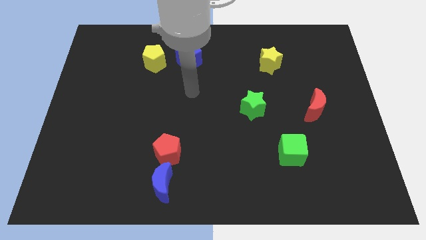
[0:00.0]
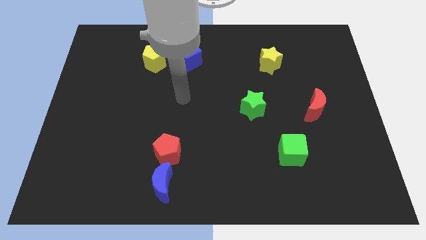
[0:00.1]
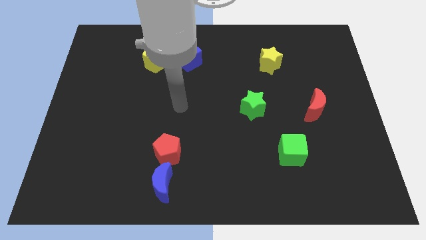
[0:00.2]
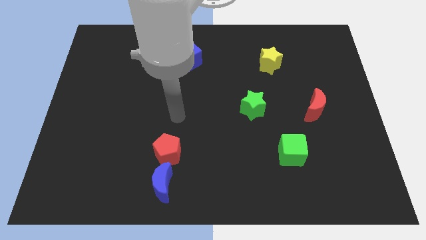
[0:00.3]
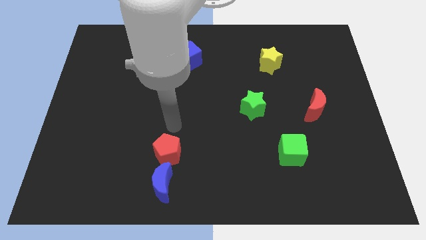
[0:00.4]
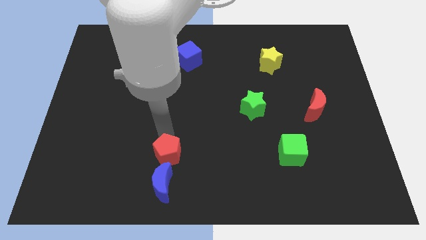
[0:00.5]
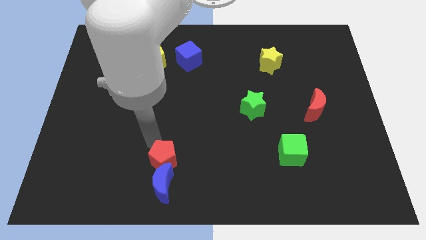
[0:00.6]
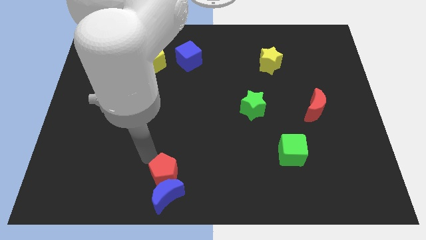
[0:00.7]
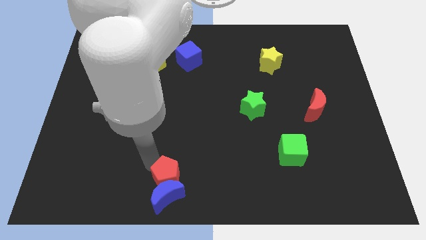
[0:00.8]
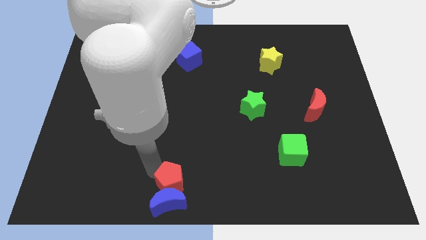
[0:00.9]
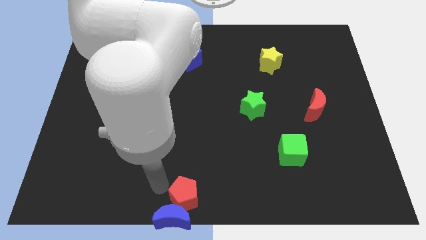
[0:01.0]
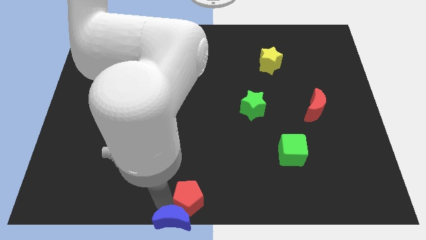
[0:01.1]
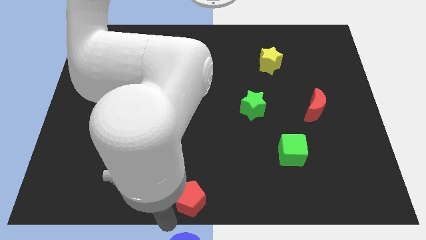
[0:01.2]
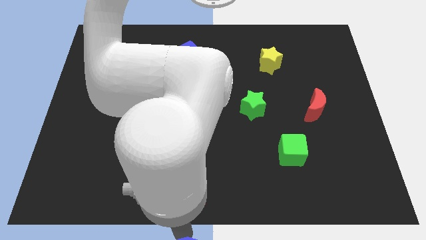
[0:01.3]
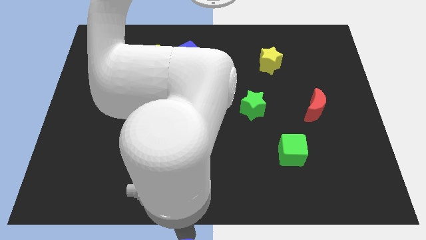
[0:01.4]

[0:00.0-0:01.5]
separate the red pentagon from the blue moon

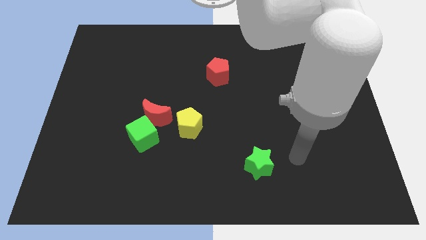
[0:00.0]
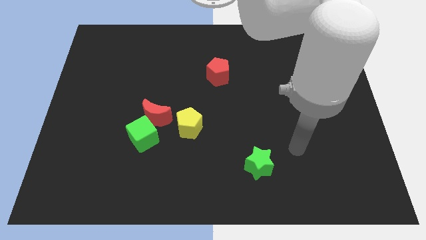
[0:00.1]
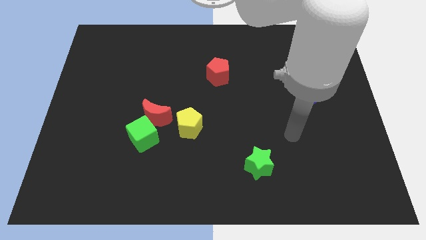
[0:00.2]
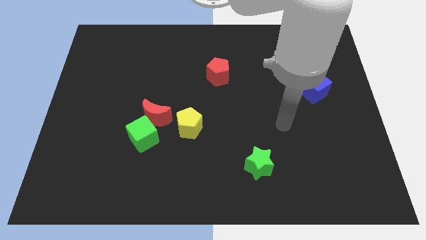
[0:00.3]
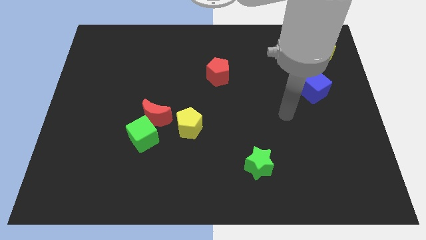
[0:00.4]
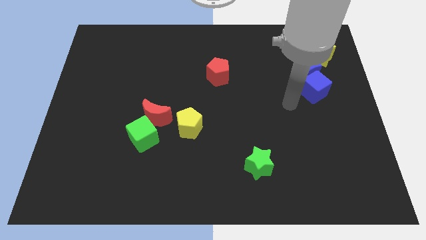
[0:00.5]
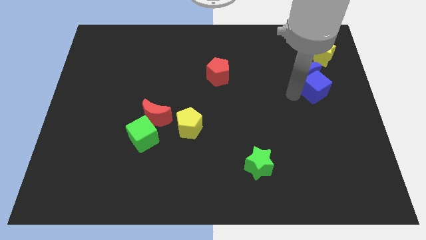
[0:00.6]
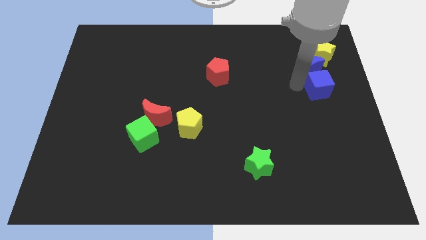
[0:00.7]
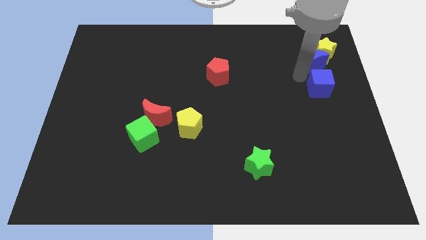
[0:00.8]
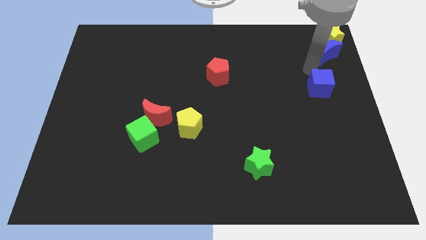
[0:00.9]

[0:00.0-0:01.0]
move the blue cube away from the blue moon

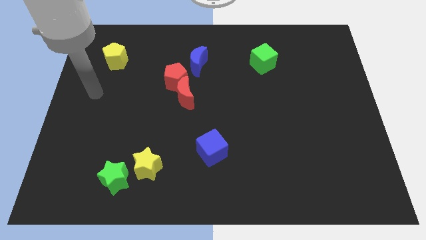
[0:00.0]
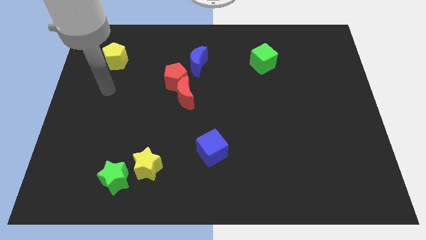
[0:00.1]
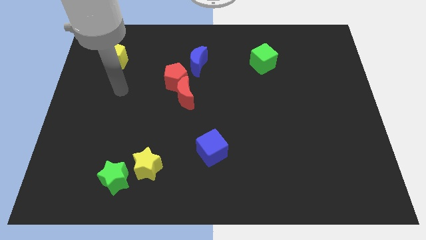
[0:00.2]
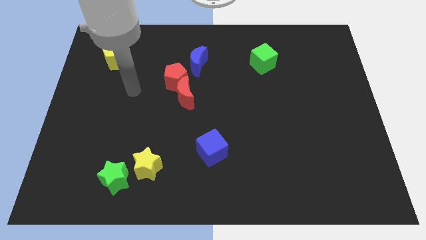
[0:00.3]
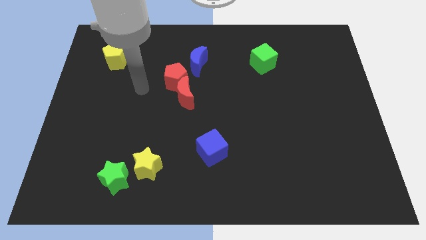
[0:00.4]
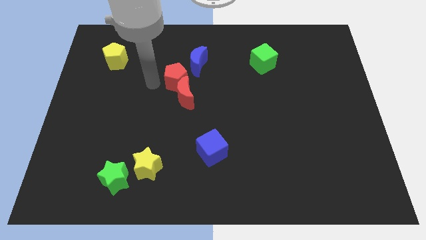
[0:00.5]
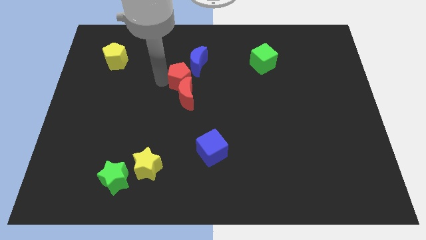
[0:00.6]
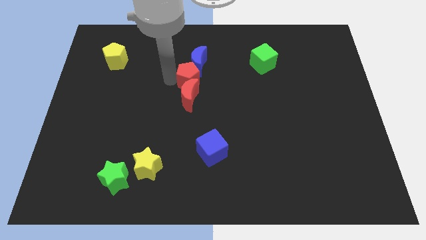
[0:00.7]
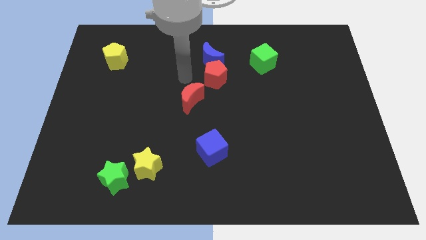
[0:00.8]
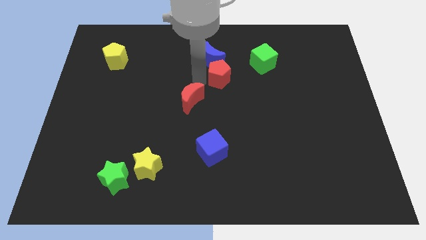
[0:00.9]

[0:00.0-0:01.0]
move the red moon away from the red pentagon

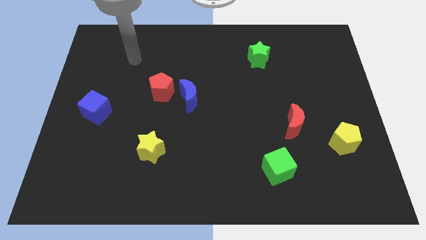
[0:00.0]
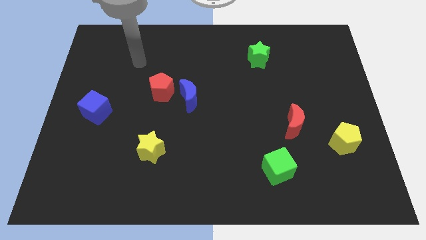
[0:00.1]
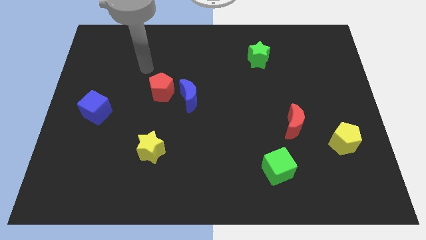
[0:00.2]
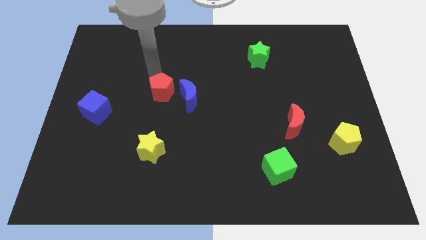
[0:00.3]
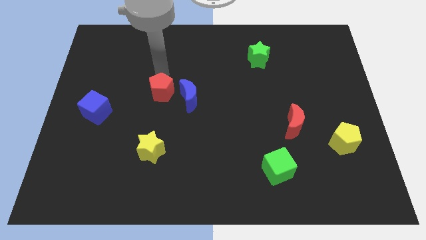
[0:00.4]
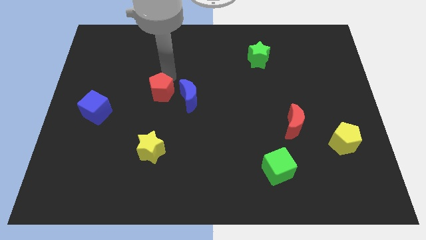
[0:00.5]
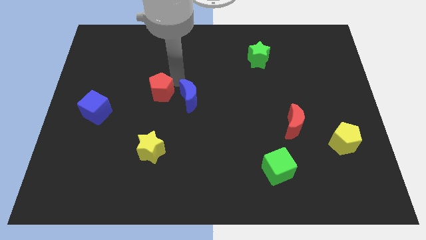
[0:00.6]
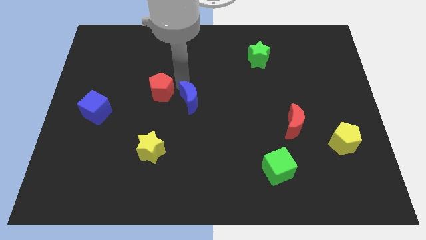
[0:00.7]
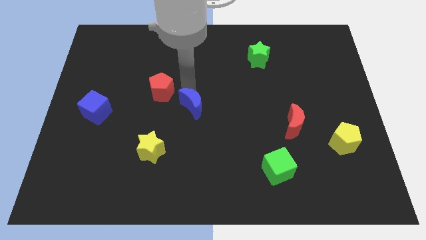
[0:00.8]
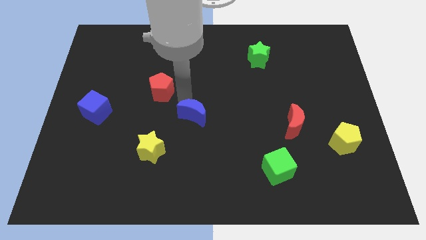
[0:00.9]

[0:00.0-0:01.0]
move the red pentagon away from the blue moon

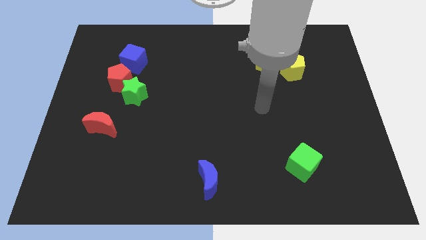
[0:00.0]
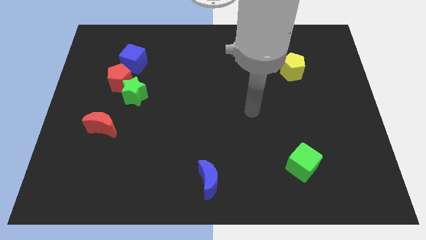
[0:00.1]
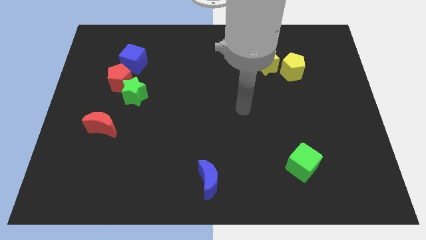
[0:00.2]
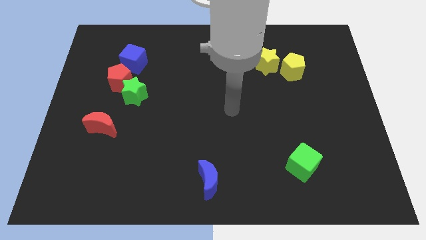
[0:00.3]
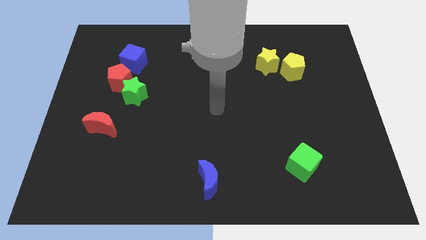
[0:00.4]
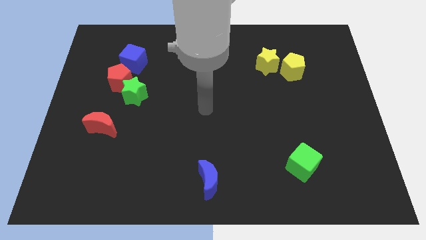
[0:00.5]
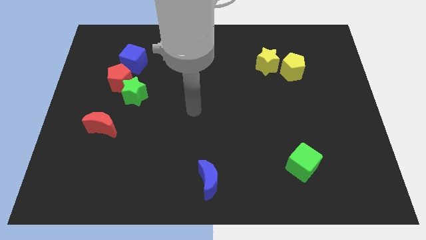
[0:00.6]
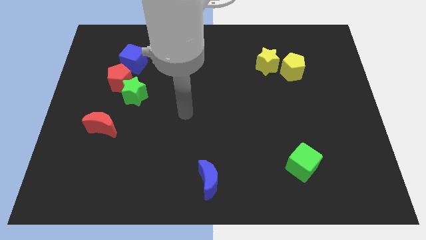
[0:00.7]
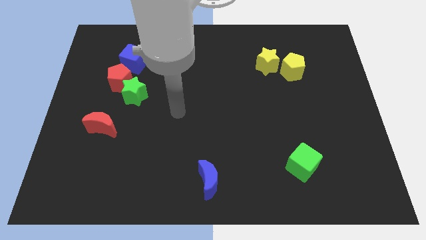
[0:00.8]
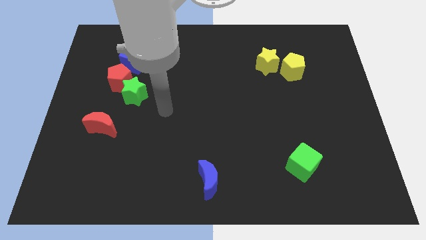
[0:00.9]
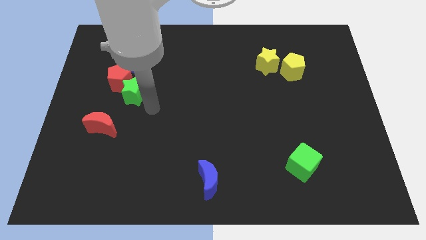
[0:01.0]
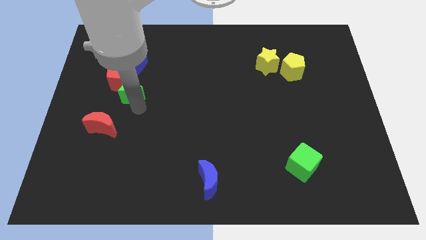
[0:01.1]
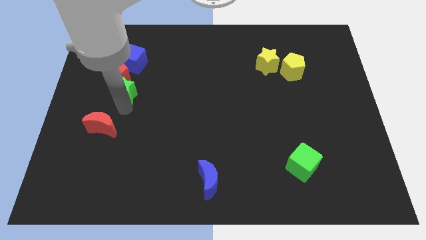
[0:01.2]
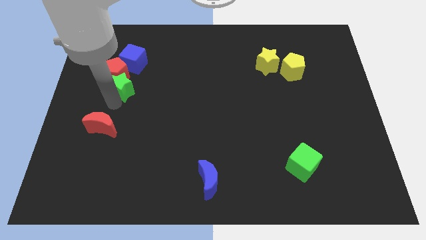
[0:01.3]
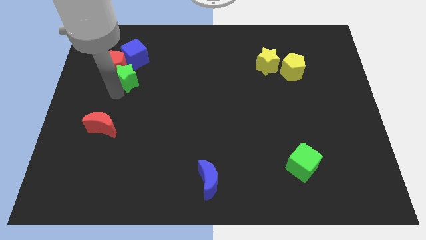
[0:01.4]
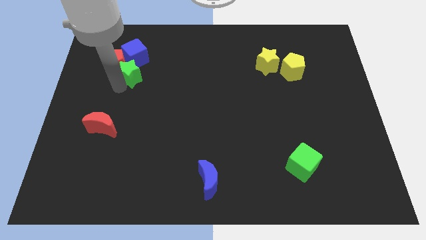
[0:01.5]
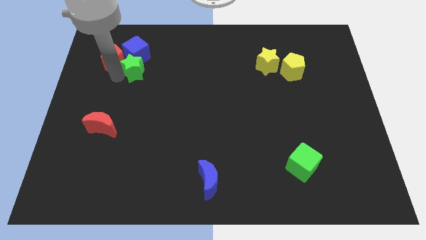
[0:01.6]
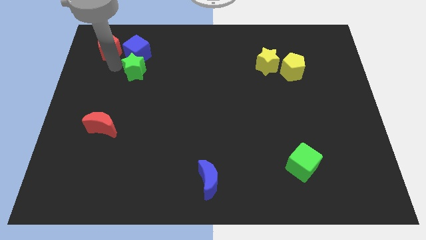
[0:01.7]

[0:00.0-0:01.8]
pull the green star apart from the red pentagon

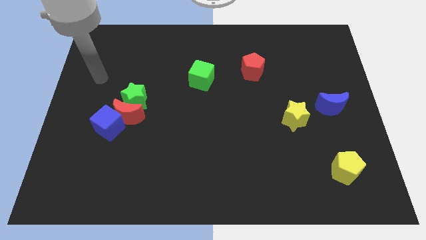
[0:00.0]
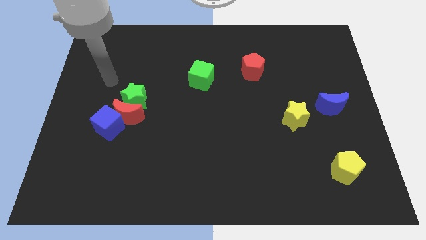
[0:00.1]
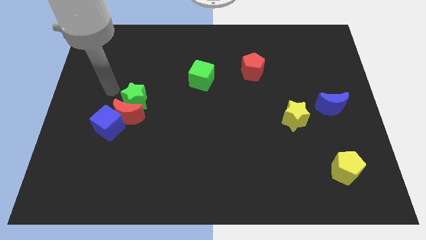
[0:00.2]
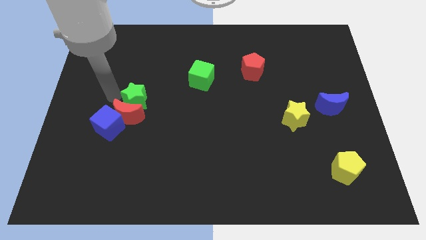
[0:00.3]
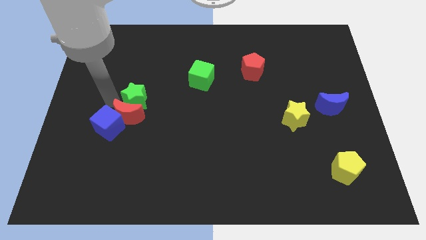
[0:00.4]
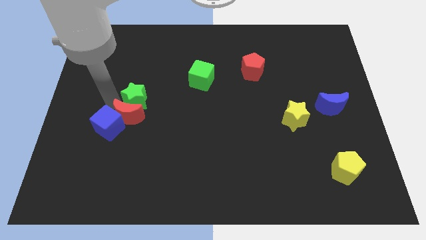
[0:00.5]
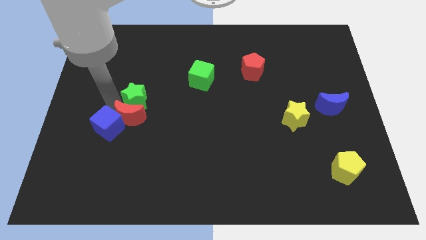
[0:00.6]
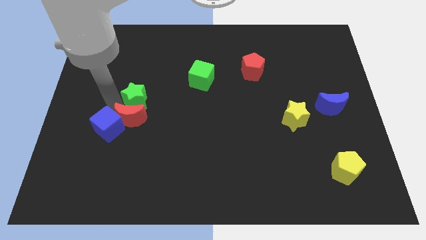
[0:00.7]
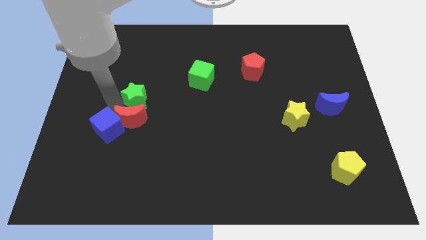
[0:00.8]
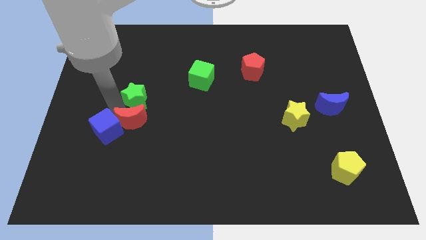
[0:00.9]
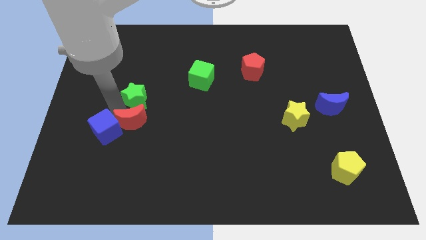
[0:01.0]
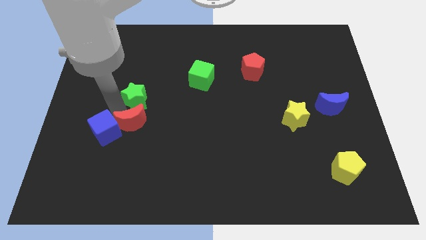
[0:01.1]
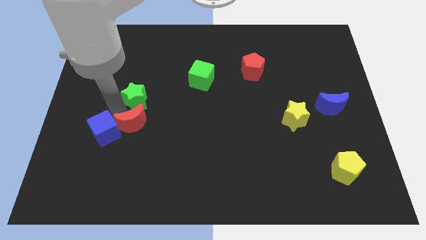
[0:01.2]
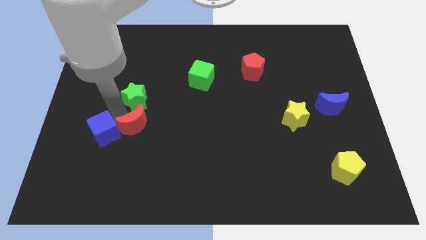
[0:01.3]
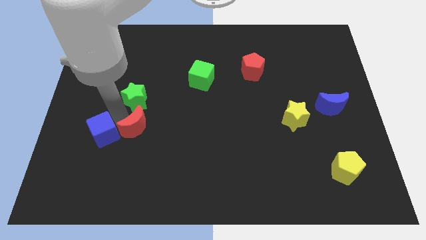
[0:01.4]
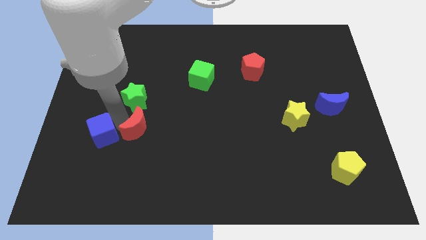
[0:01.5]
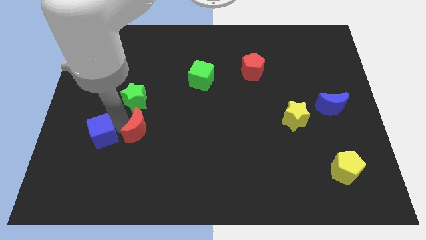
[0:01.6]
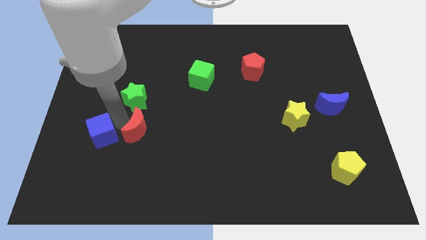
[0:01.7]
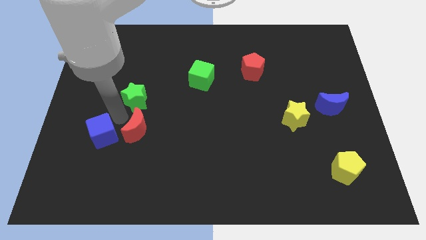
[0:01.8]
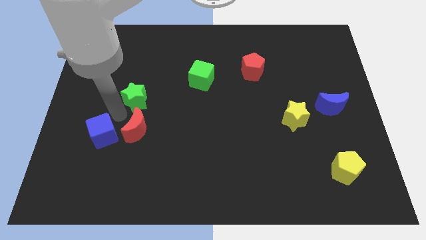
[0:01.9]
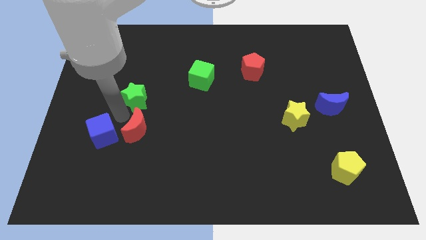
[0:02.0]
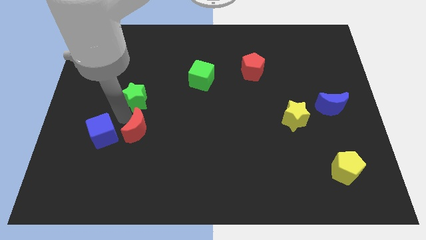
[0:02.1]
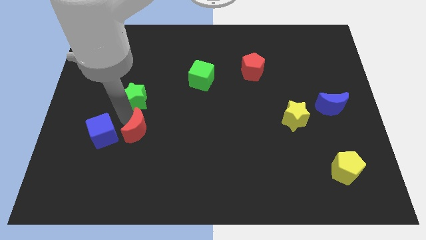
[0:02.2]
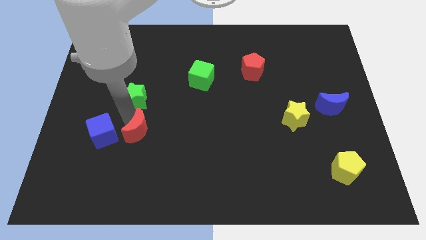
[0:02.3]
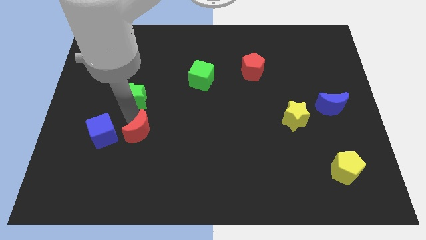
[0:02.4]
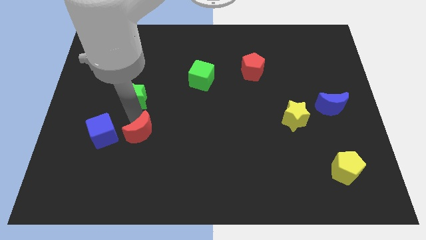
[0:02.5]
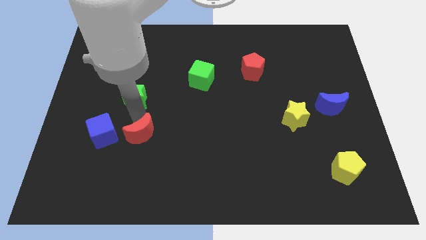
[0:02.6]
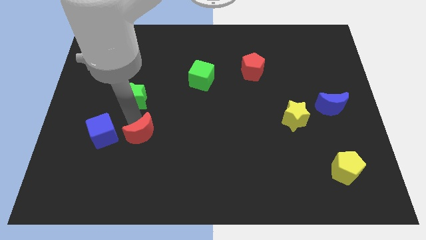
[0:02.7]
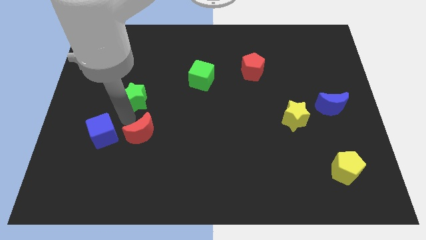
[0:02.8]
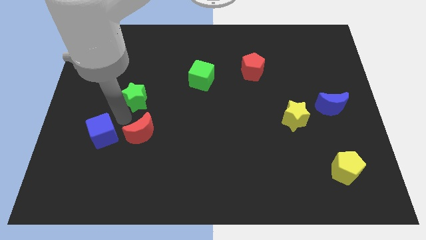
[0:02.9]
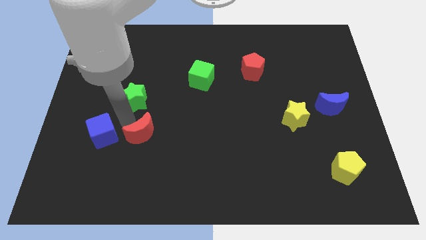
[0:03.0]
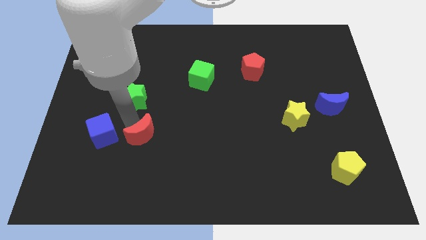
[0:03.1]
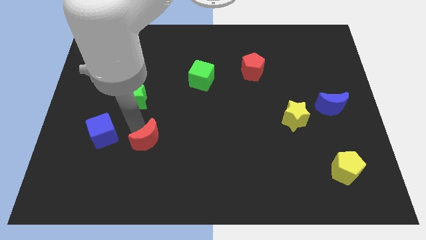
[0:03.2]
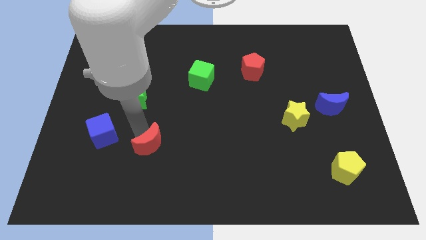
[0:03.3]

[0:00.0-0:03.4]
pull the red moon apart from the green star and blue cube
